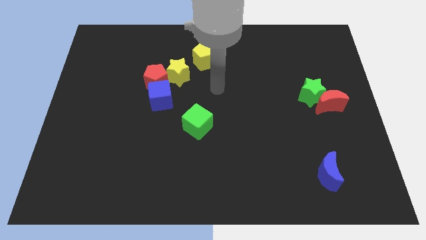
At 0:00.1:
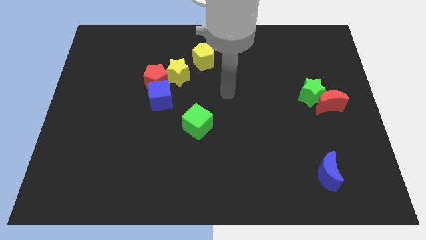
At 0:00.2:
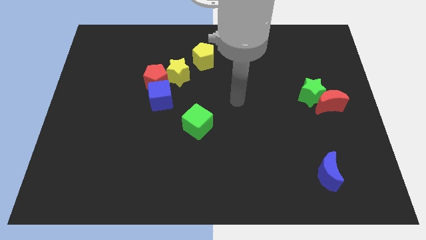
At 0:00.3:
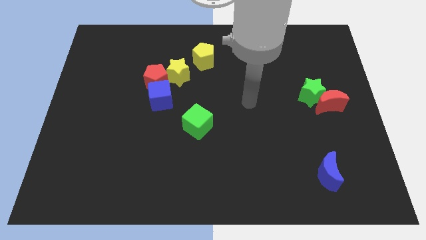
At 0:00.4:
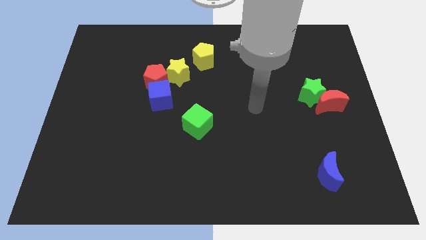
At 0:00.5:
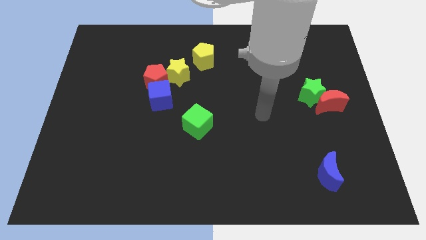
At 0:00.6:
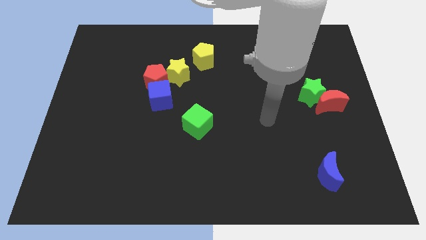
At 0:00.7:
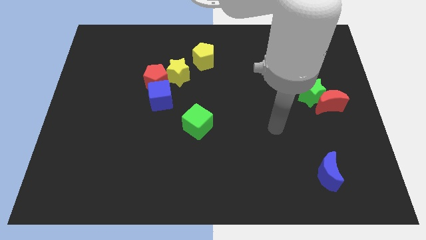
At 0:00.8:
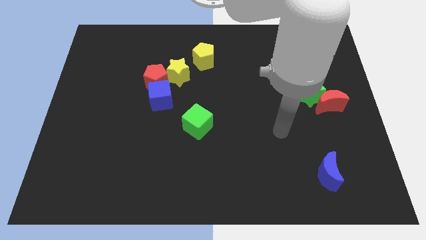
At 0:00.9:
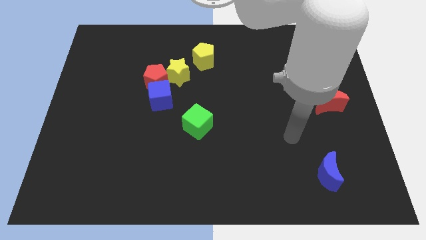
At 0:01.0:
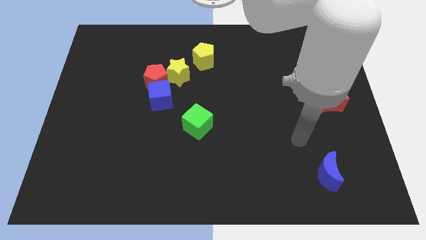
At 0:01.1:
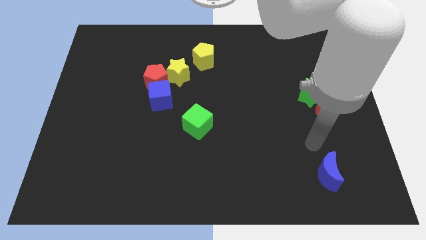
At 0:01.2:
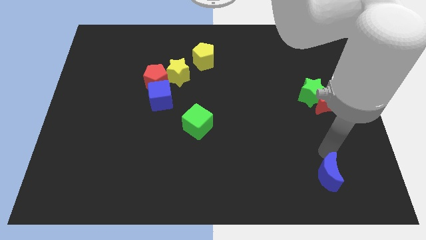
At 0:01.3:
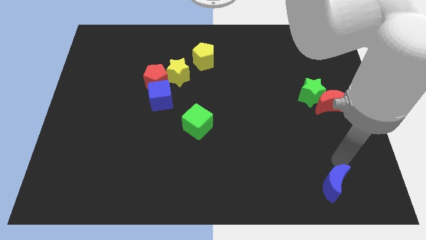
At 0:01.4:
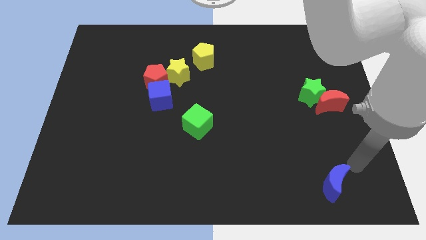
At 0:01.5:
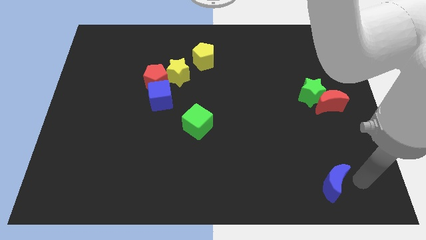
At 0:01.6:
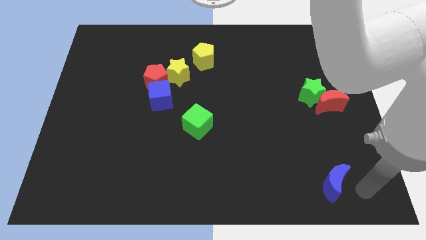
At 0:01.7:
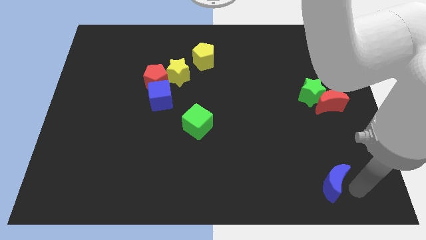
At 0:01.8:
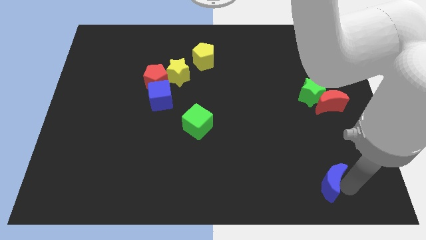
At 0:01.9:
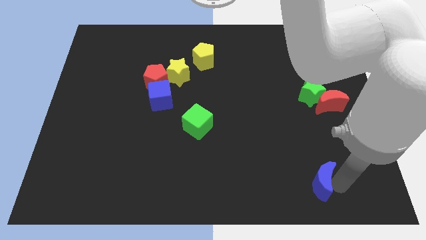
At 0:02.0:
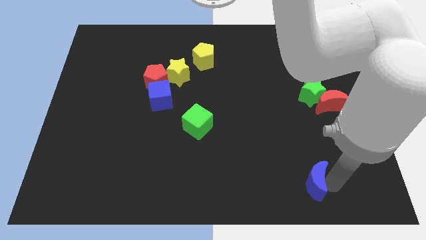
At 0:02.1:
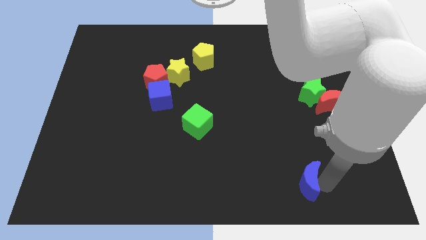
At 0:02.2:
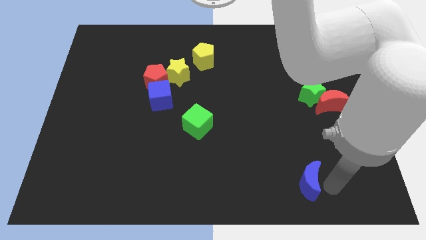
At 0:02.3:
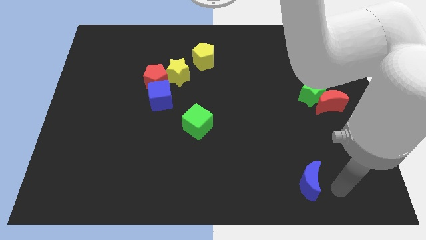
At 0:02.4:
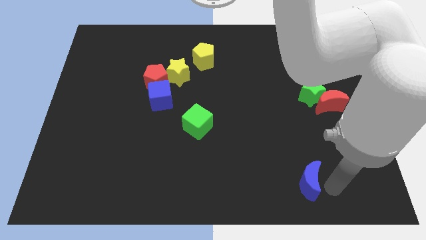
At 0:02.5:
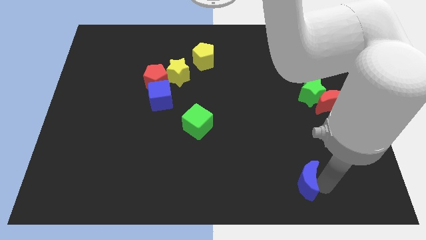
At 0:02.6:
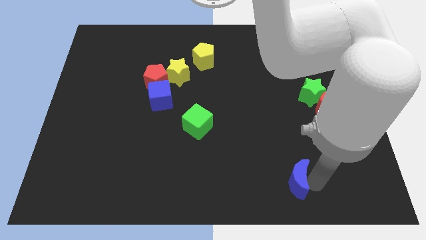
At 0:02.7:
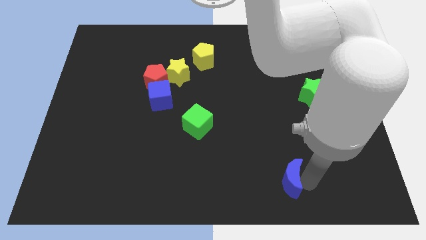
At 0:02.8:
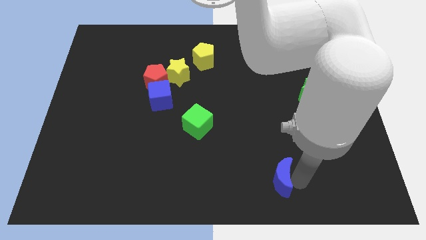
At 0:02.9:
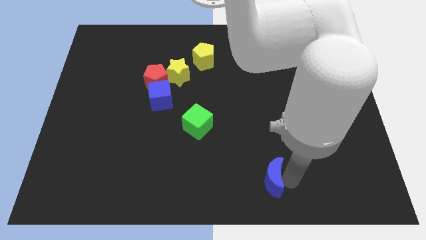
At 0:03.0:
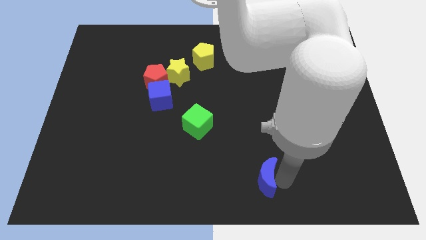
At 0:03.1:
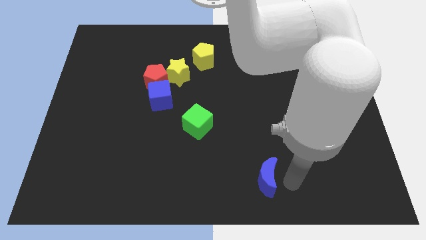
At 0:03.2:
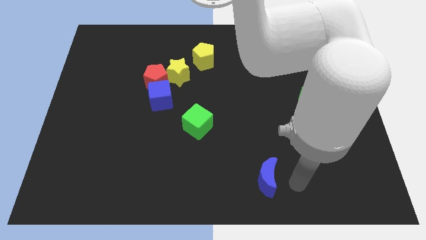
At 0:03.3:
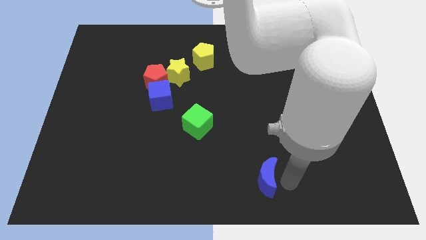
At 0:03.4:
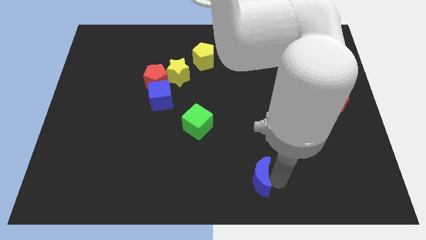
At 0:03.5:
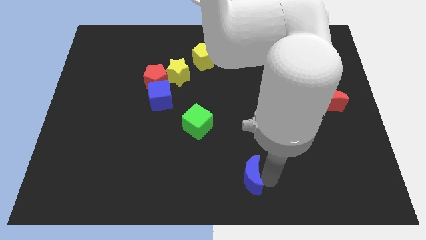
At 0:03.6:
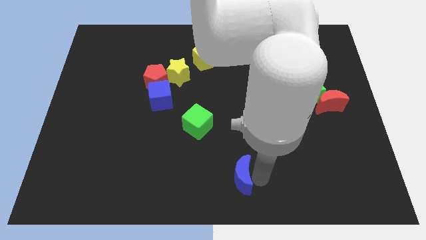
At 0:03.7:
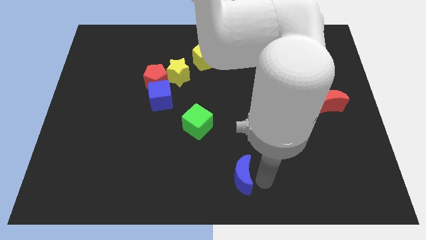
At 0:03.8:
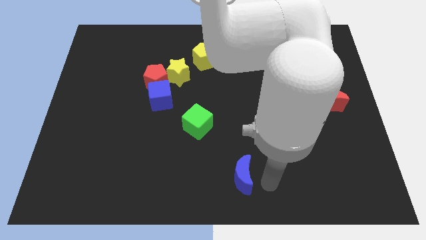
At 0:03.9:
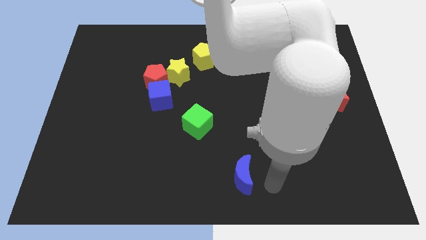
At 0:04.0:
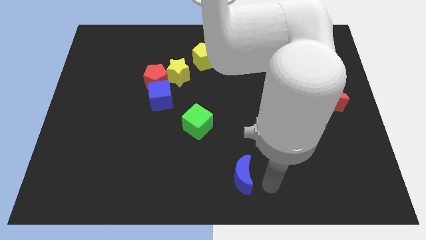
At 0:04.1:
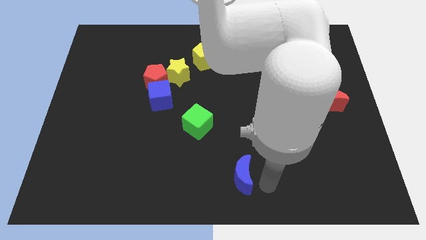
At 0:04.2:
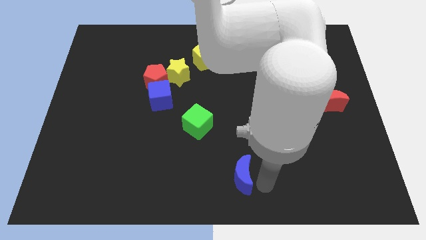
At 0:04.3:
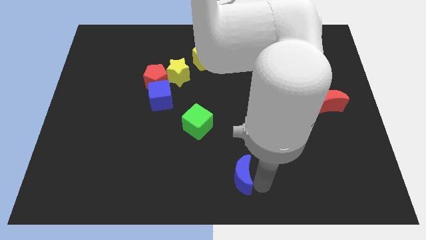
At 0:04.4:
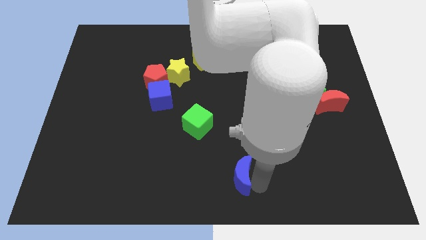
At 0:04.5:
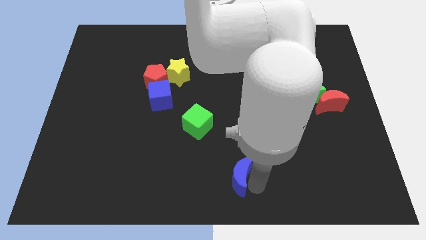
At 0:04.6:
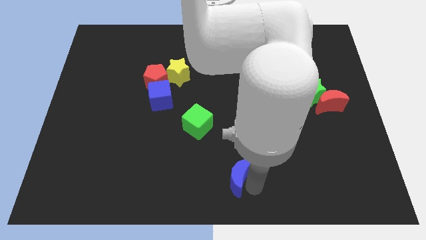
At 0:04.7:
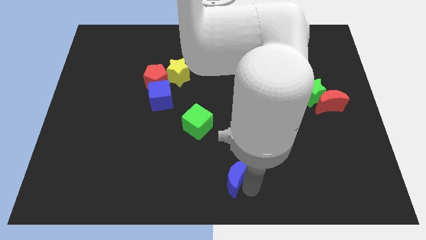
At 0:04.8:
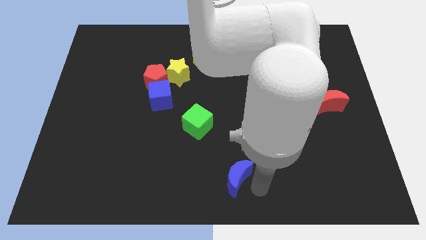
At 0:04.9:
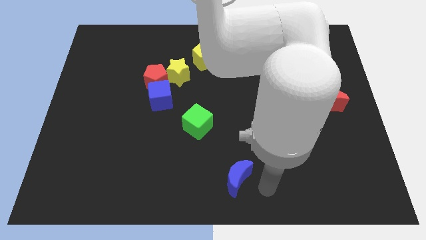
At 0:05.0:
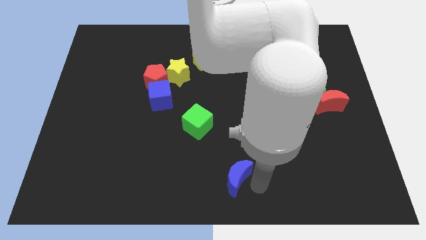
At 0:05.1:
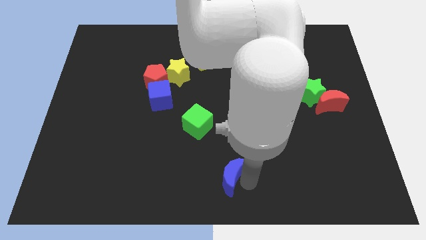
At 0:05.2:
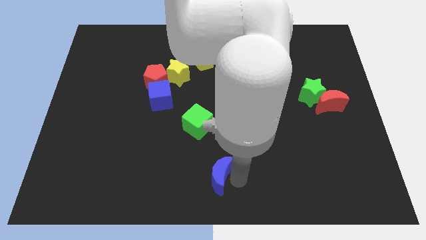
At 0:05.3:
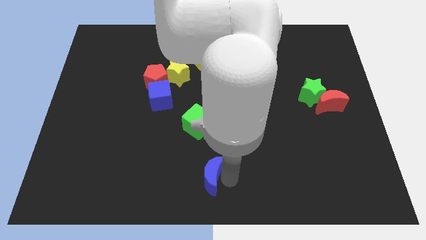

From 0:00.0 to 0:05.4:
put the blue moon to the bottom side of the green cube

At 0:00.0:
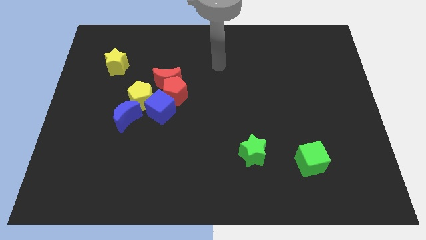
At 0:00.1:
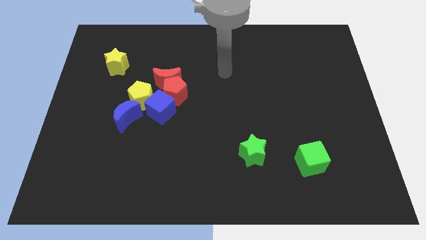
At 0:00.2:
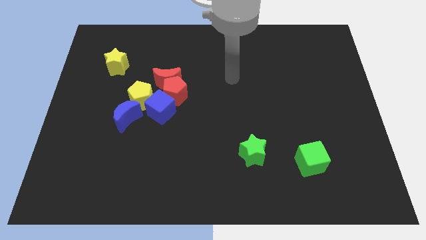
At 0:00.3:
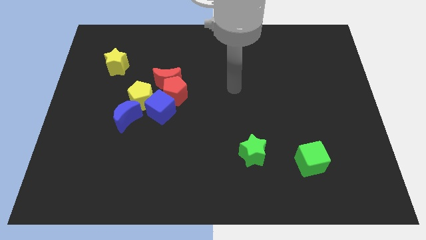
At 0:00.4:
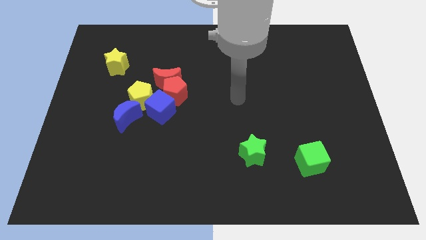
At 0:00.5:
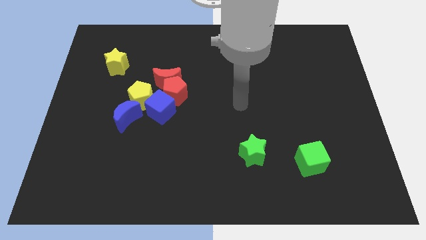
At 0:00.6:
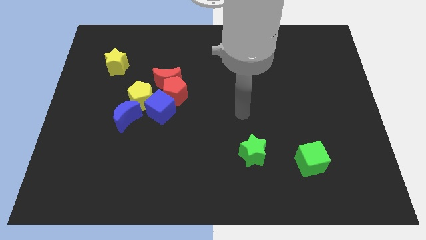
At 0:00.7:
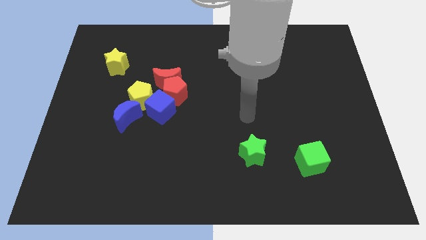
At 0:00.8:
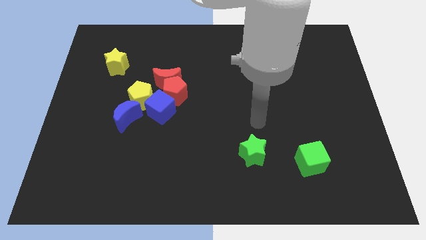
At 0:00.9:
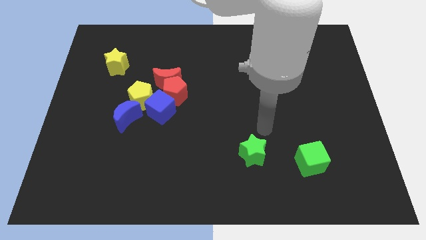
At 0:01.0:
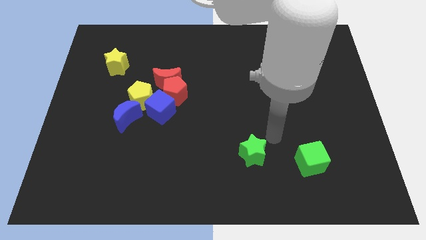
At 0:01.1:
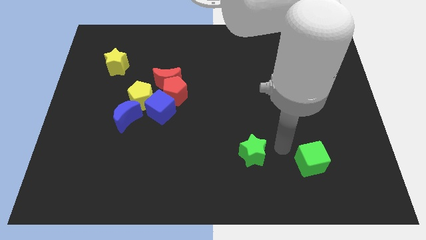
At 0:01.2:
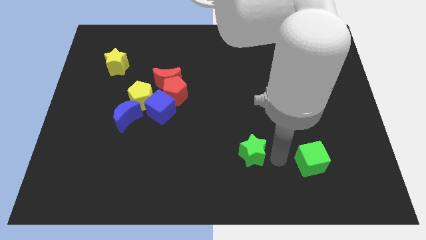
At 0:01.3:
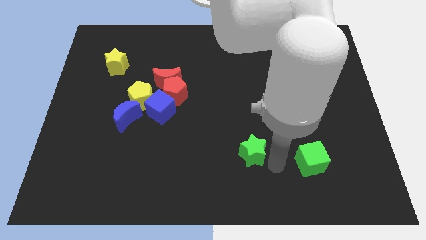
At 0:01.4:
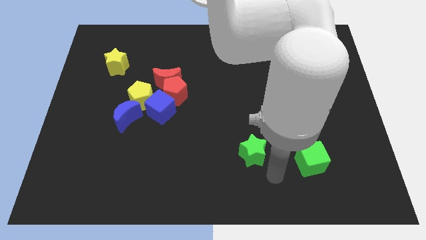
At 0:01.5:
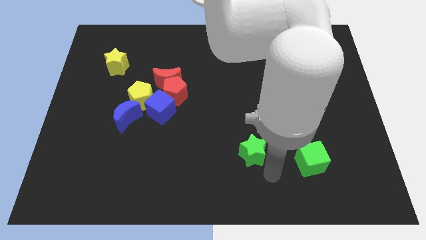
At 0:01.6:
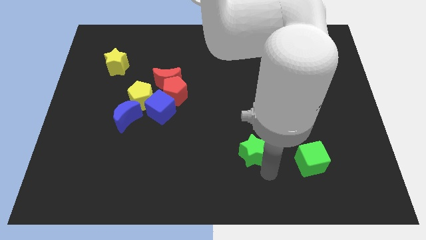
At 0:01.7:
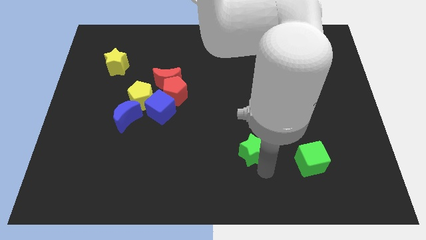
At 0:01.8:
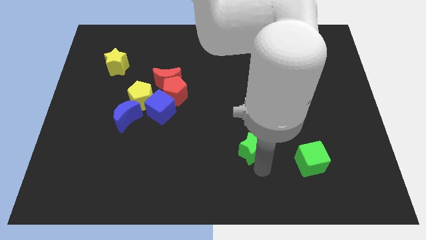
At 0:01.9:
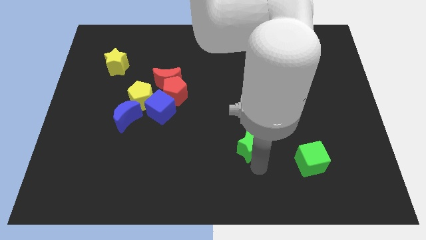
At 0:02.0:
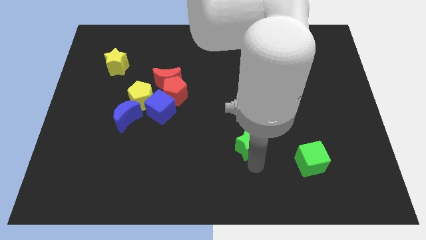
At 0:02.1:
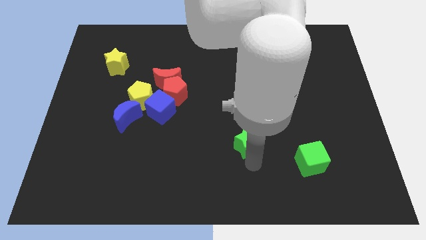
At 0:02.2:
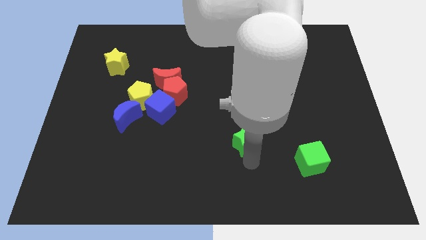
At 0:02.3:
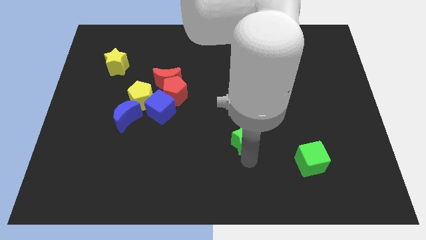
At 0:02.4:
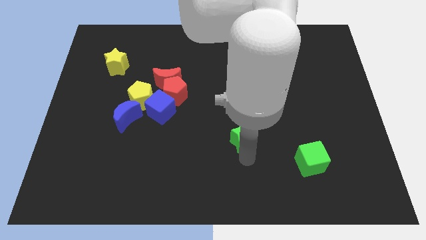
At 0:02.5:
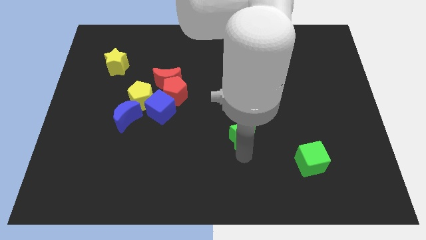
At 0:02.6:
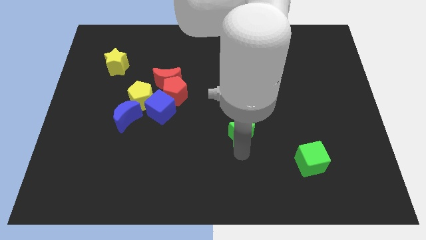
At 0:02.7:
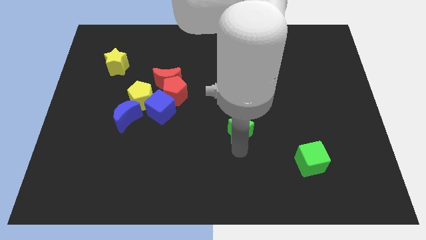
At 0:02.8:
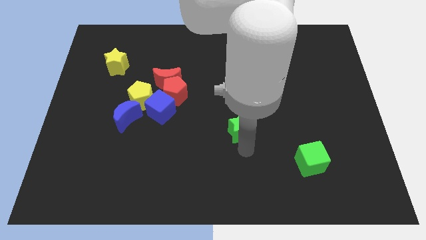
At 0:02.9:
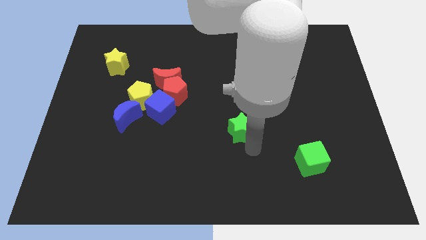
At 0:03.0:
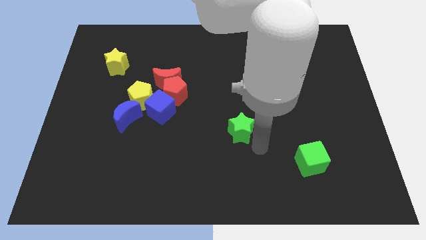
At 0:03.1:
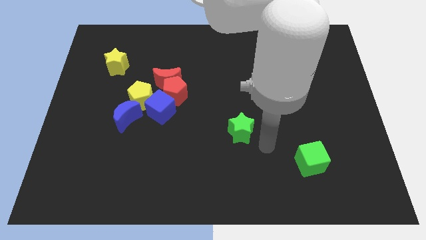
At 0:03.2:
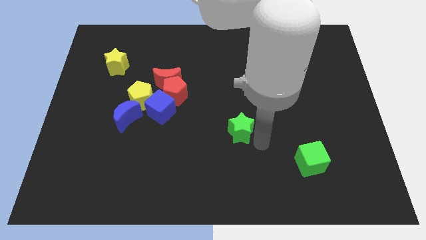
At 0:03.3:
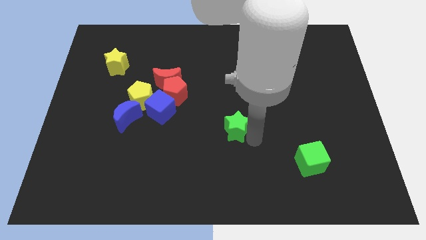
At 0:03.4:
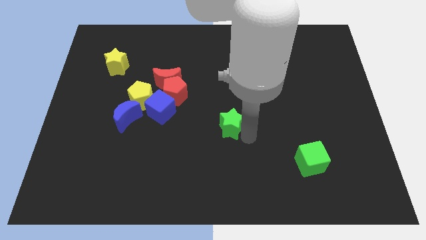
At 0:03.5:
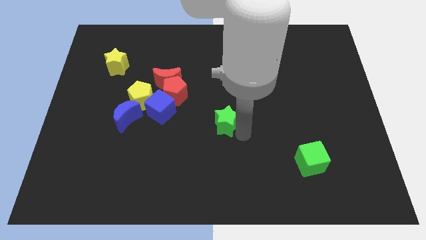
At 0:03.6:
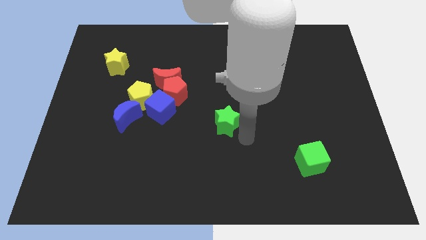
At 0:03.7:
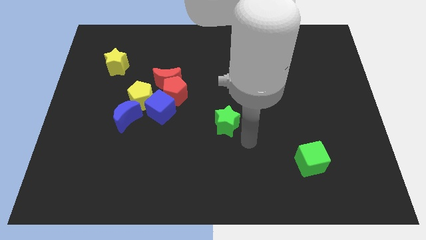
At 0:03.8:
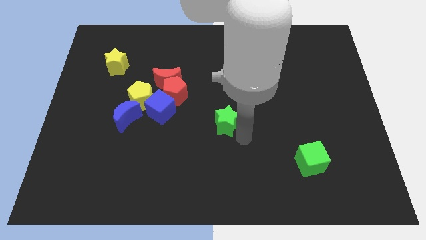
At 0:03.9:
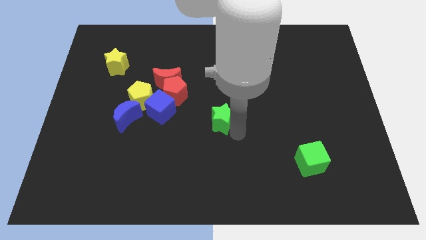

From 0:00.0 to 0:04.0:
move the green star to the right of the blue cube
